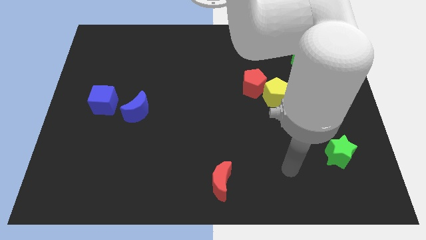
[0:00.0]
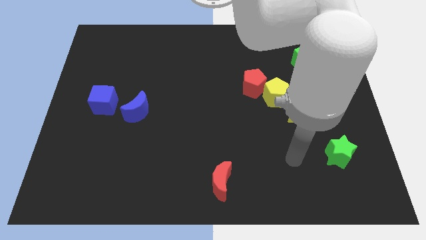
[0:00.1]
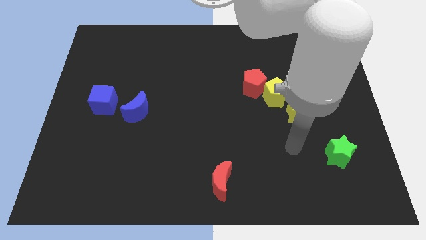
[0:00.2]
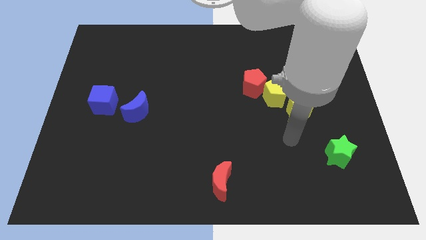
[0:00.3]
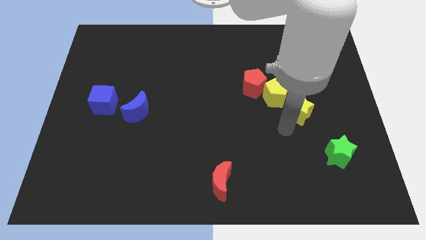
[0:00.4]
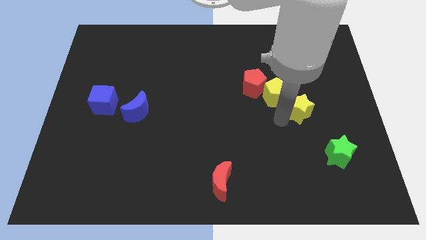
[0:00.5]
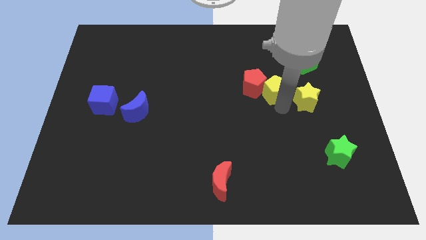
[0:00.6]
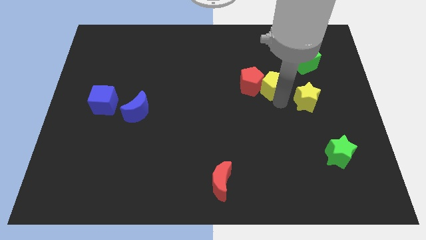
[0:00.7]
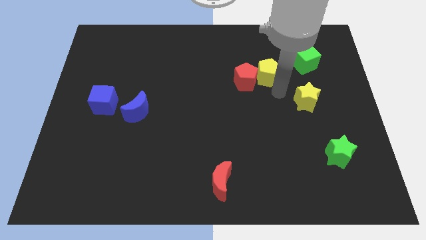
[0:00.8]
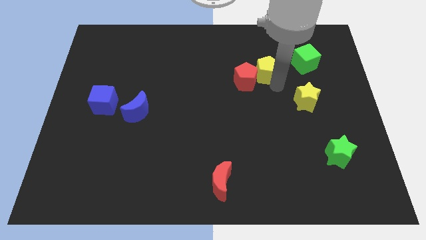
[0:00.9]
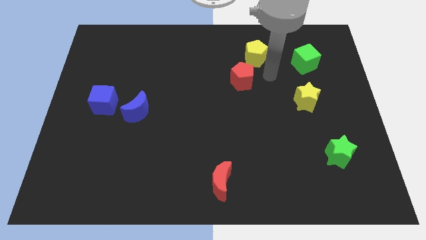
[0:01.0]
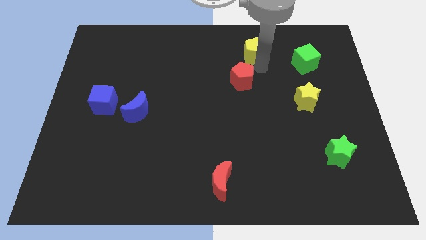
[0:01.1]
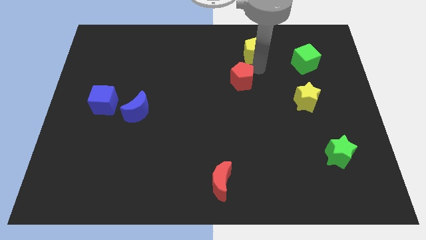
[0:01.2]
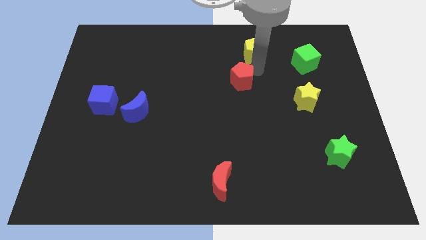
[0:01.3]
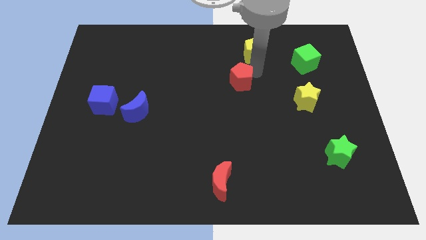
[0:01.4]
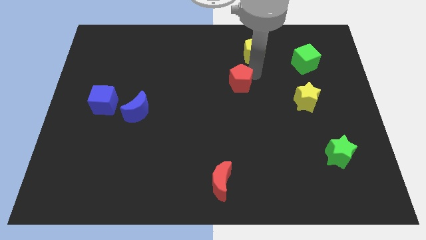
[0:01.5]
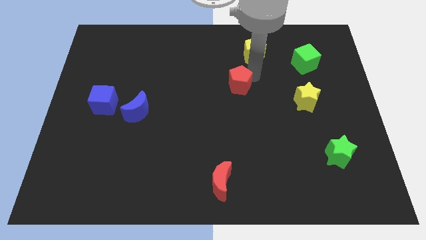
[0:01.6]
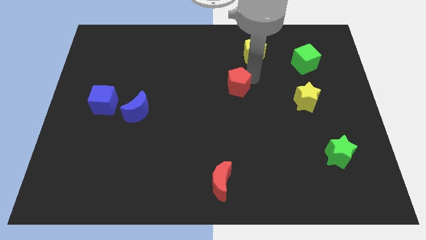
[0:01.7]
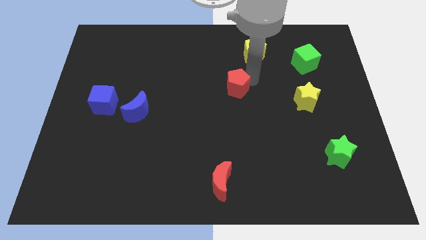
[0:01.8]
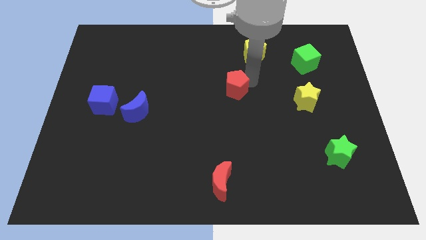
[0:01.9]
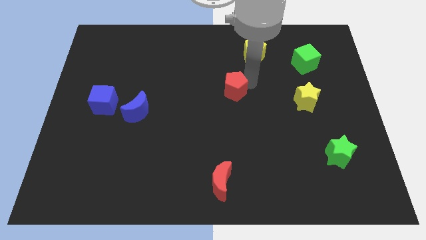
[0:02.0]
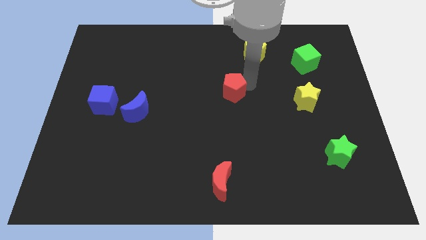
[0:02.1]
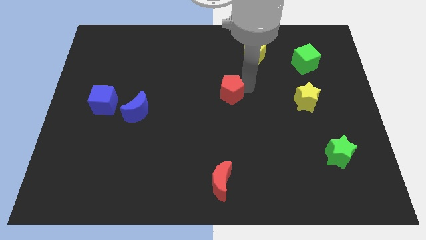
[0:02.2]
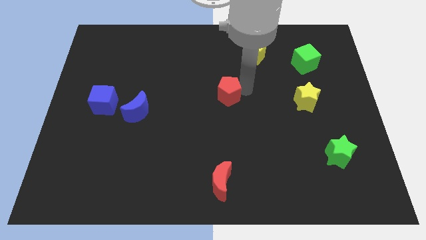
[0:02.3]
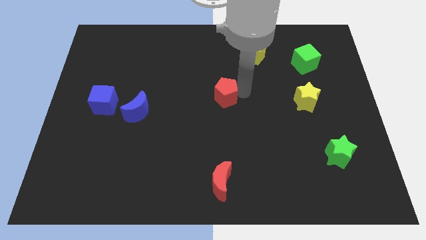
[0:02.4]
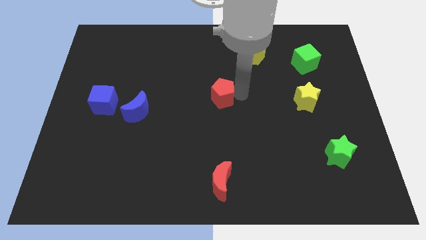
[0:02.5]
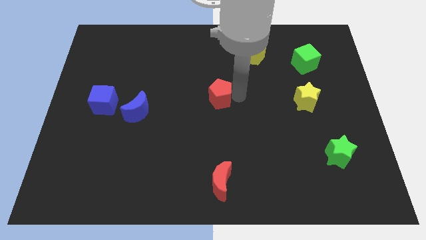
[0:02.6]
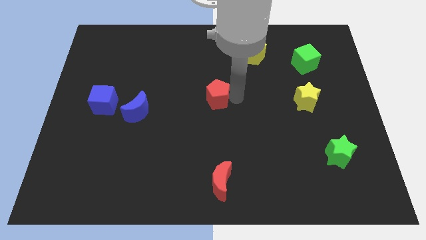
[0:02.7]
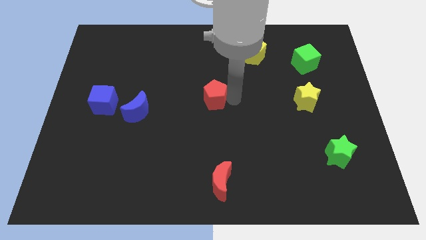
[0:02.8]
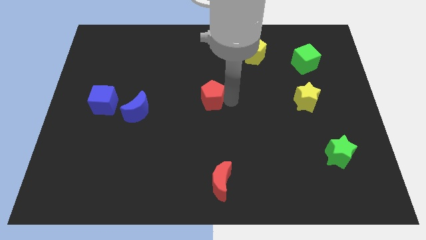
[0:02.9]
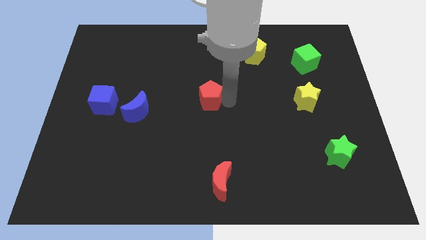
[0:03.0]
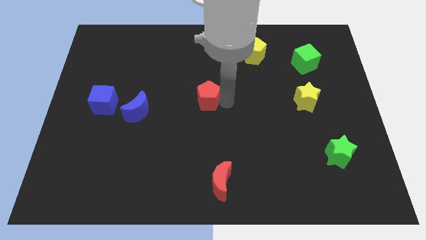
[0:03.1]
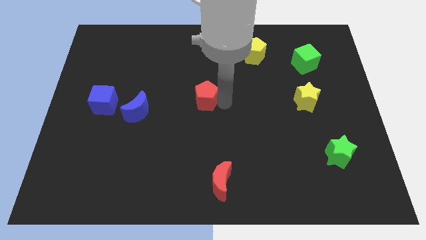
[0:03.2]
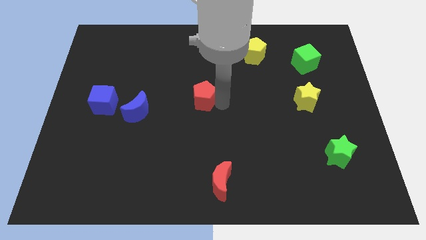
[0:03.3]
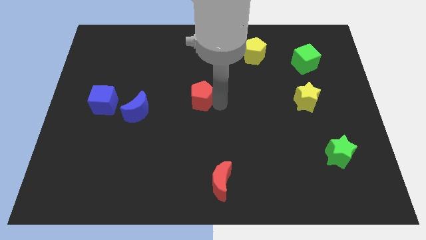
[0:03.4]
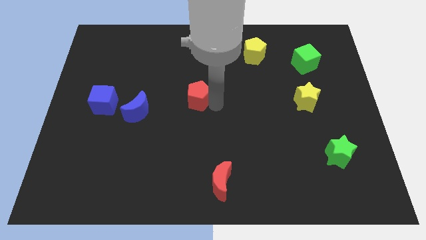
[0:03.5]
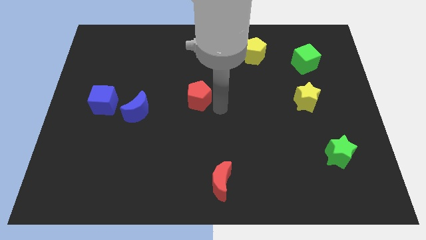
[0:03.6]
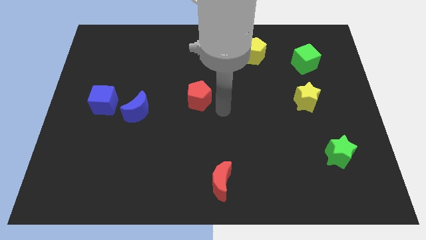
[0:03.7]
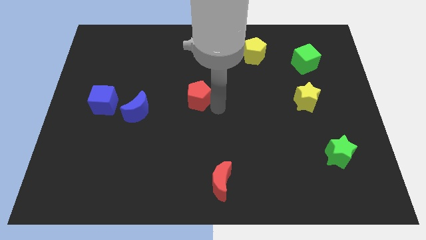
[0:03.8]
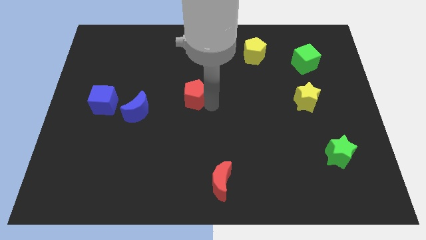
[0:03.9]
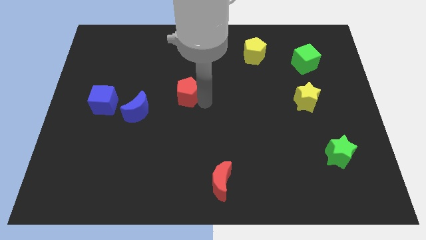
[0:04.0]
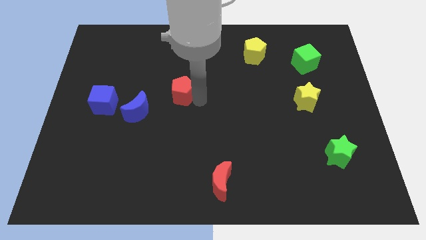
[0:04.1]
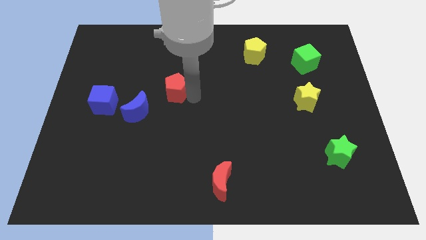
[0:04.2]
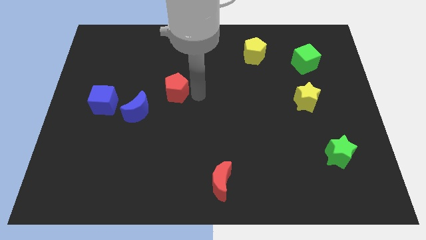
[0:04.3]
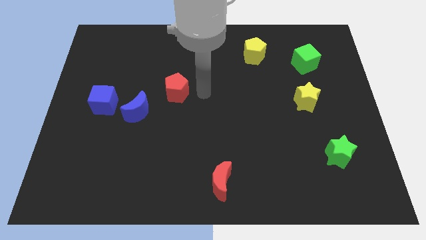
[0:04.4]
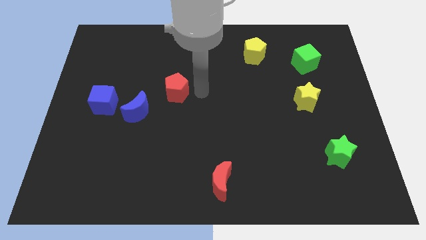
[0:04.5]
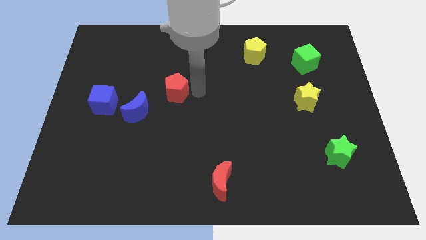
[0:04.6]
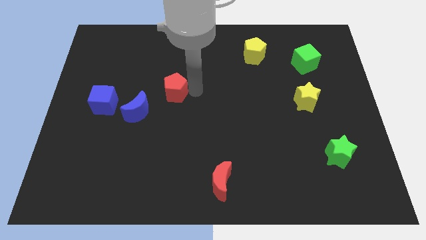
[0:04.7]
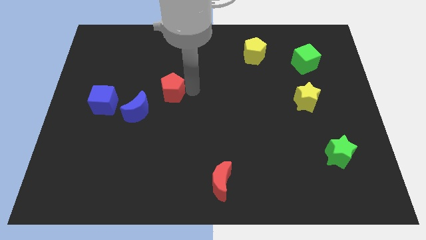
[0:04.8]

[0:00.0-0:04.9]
push the red pentagon left

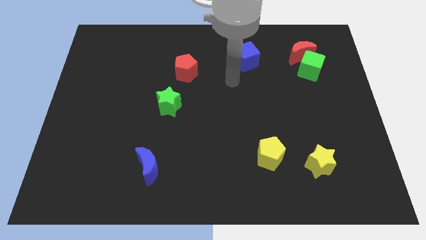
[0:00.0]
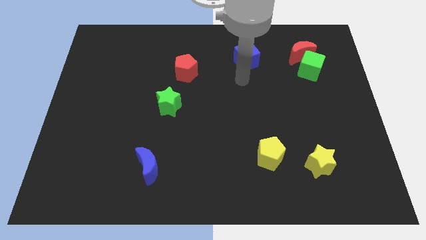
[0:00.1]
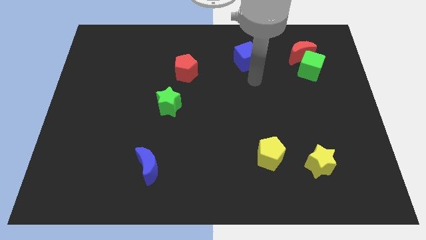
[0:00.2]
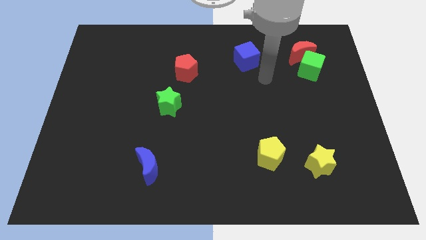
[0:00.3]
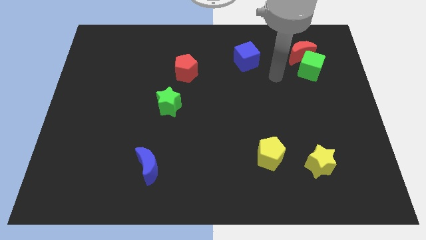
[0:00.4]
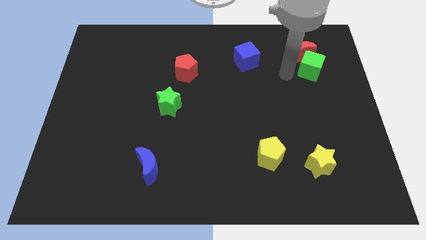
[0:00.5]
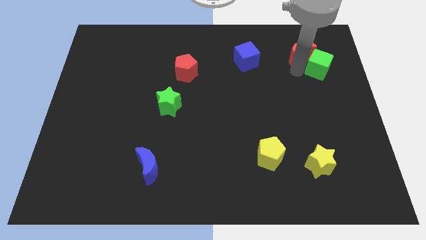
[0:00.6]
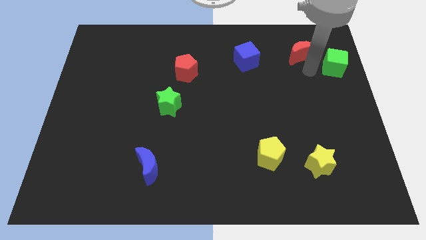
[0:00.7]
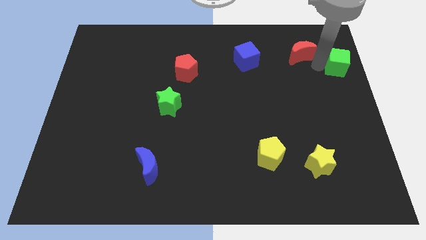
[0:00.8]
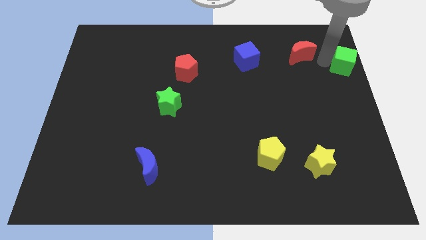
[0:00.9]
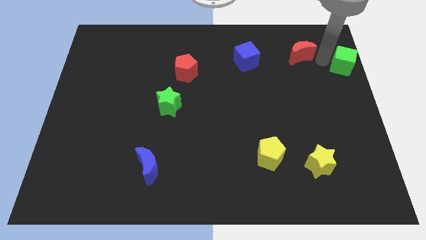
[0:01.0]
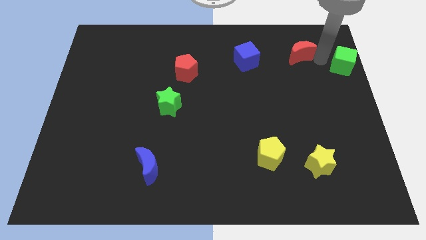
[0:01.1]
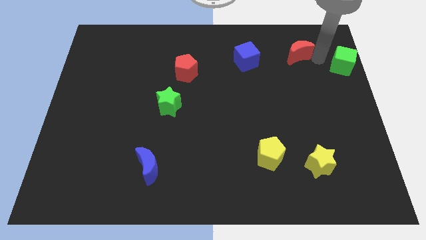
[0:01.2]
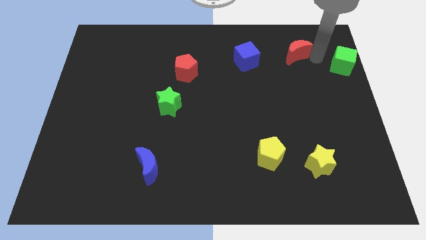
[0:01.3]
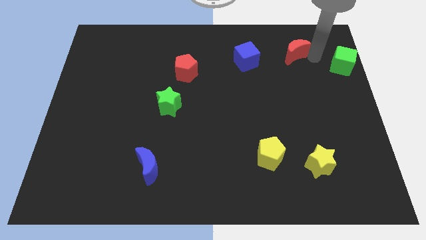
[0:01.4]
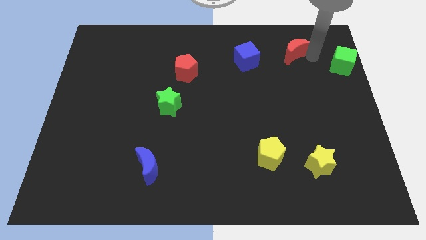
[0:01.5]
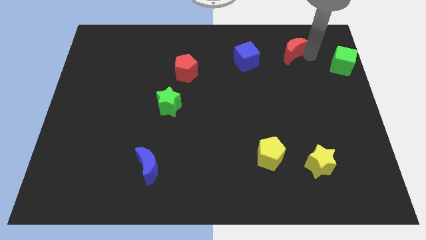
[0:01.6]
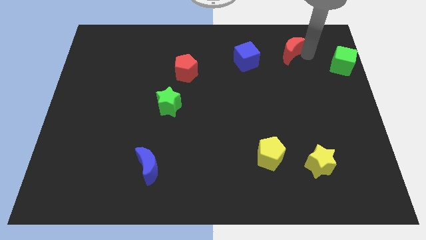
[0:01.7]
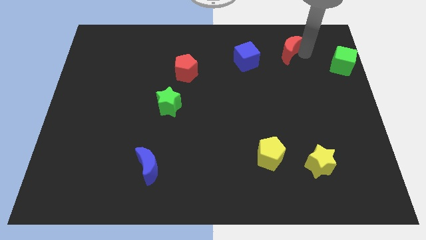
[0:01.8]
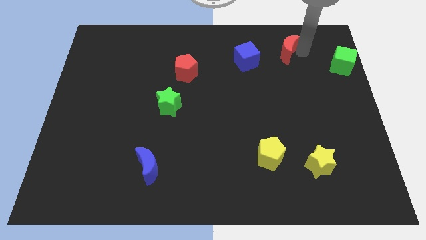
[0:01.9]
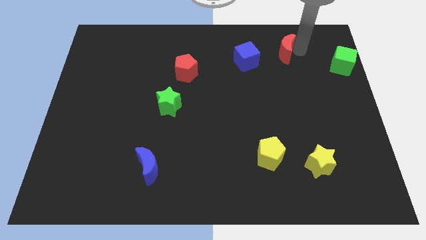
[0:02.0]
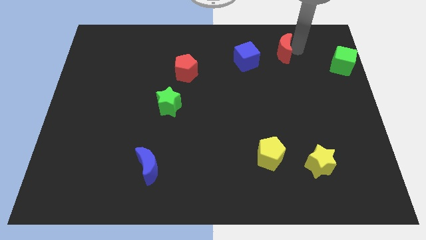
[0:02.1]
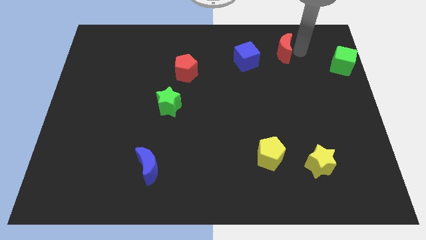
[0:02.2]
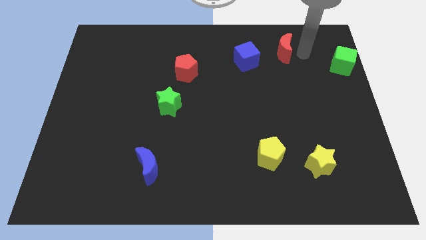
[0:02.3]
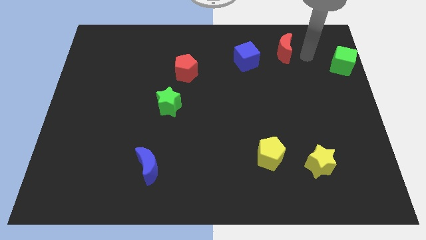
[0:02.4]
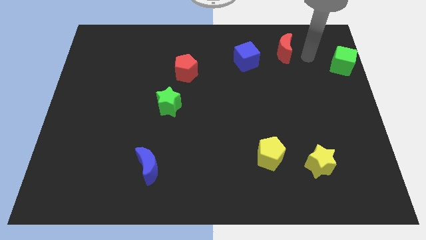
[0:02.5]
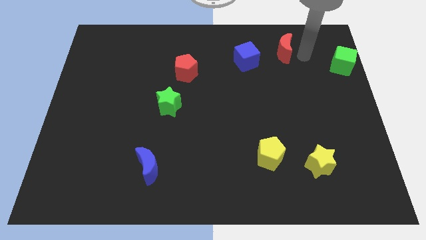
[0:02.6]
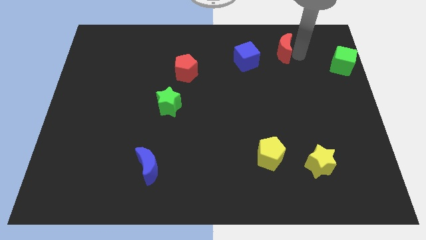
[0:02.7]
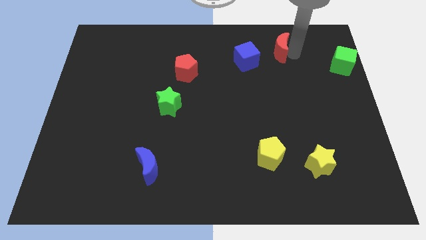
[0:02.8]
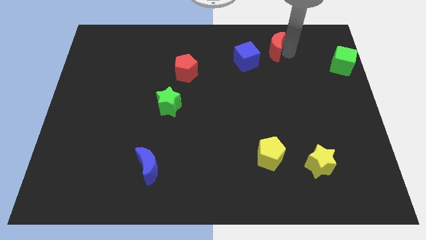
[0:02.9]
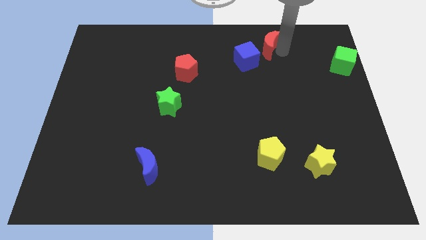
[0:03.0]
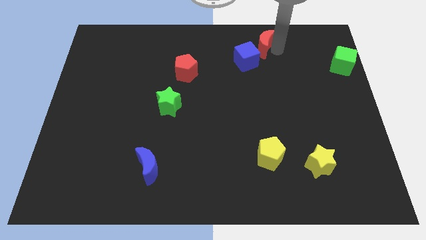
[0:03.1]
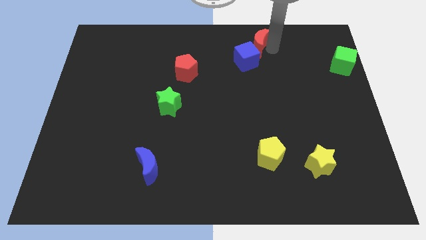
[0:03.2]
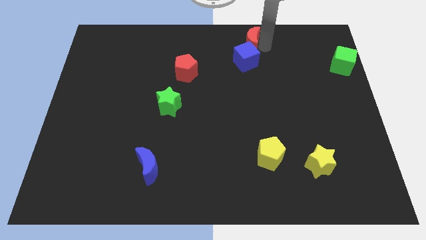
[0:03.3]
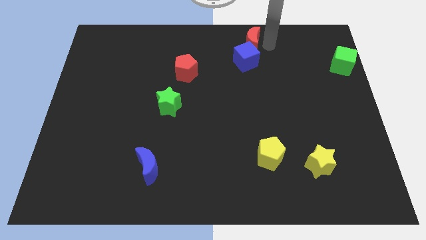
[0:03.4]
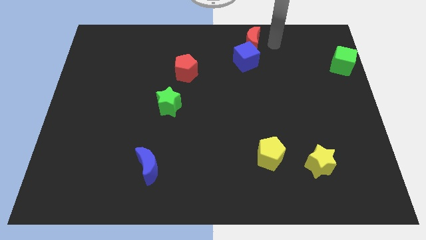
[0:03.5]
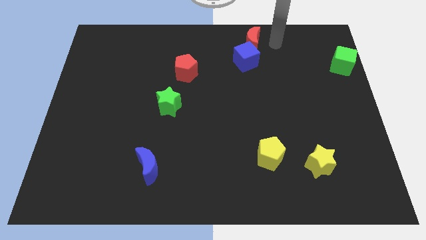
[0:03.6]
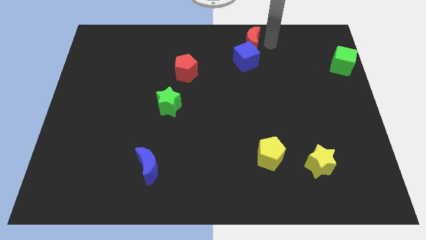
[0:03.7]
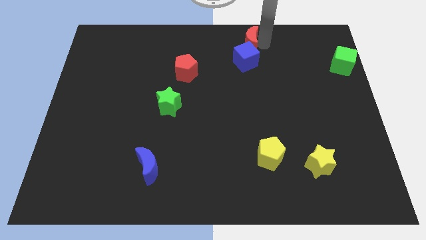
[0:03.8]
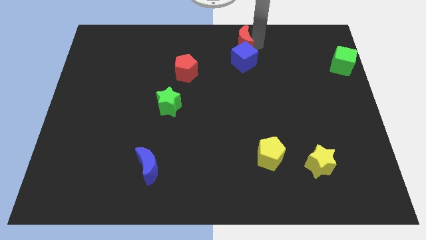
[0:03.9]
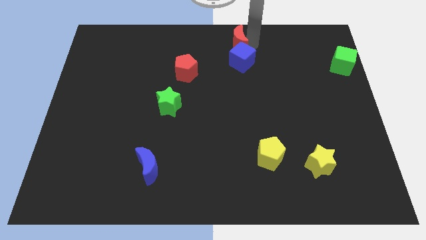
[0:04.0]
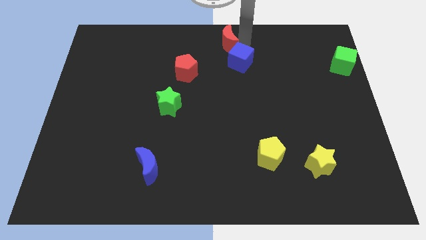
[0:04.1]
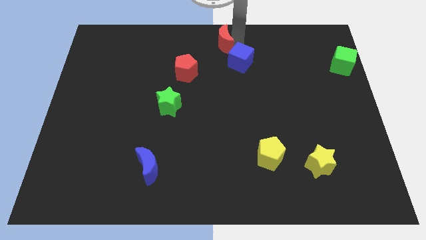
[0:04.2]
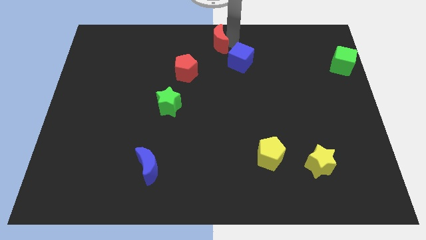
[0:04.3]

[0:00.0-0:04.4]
push the red moon to the left
